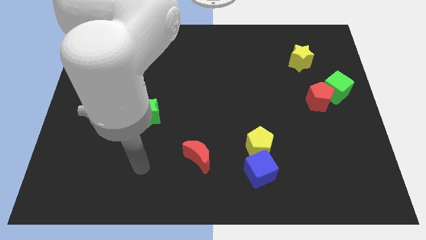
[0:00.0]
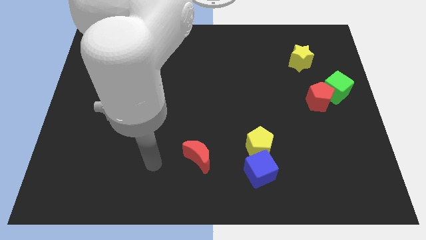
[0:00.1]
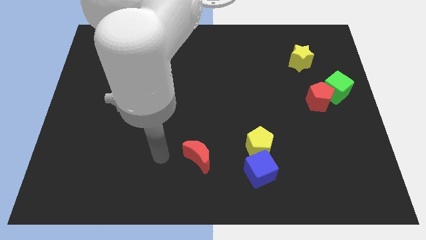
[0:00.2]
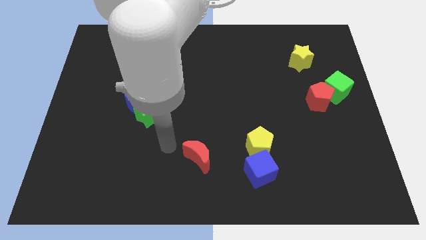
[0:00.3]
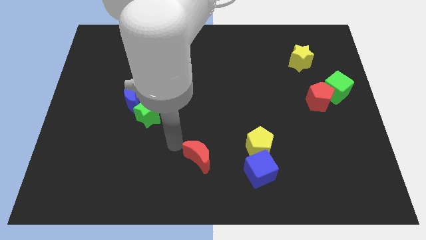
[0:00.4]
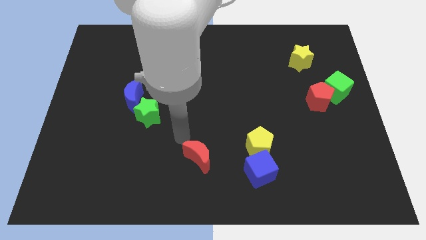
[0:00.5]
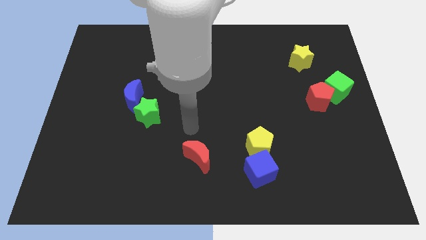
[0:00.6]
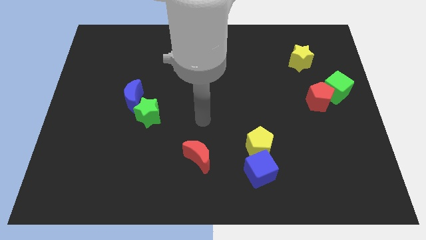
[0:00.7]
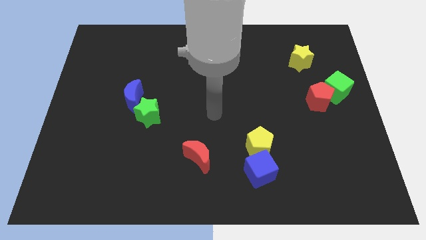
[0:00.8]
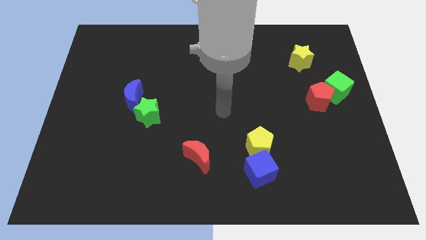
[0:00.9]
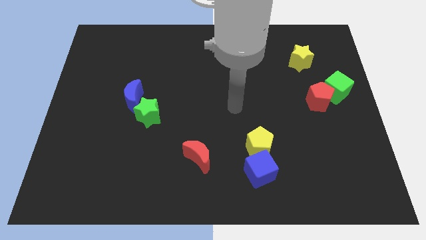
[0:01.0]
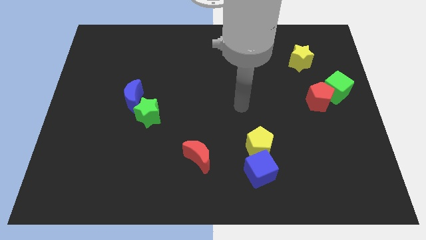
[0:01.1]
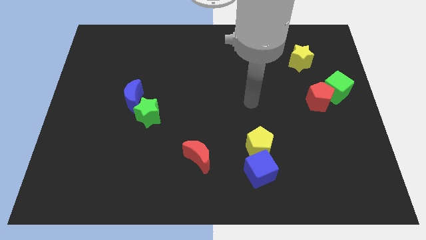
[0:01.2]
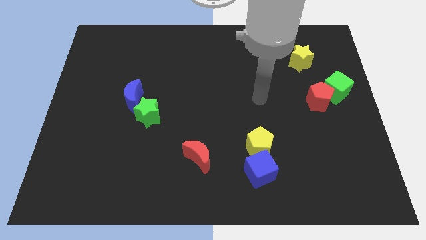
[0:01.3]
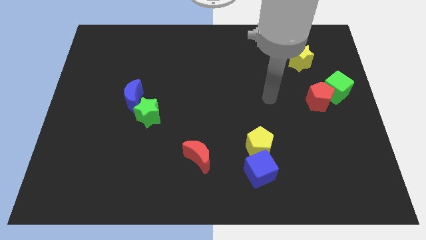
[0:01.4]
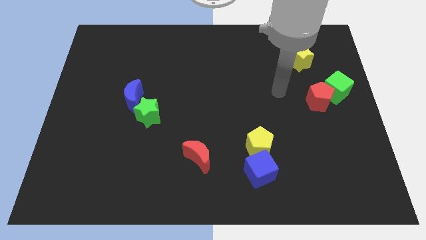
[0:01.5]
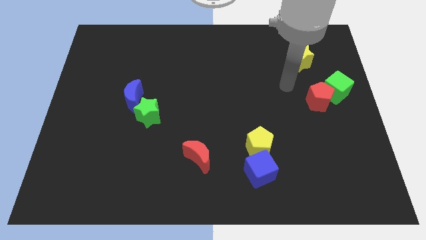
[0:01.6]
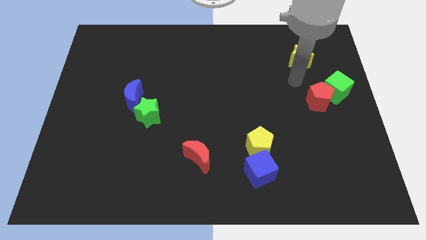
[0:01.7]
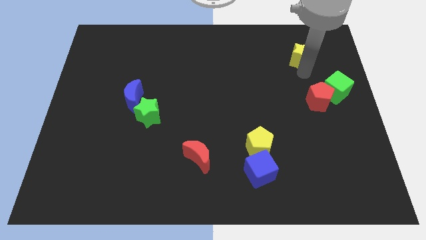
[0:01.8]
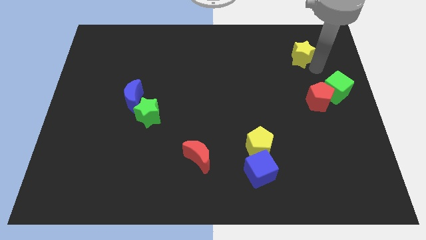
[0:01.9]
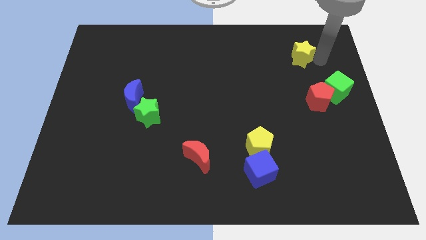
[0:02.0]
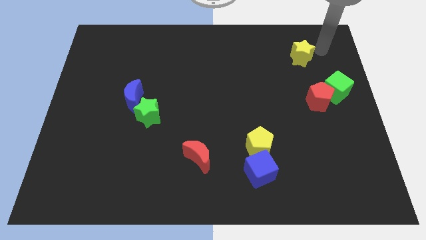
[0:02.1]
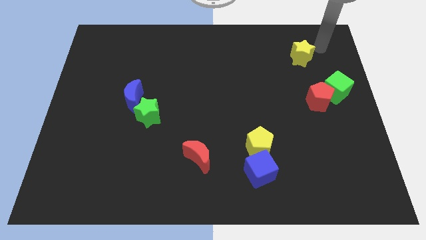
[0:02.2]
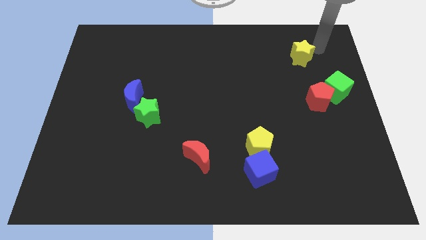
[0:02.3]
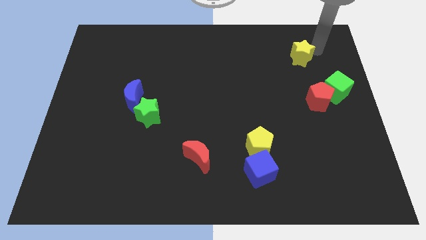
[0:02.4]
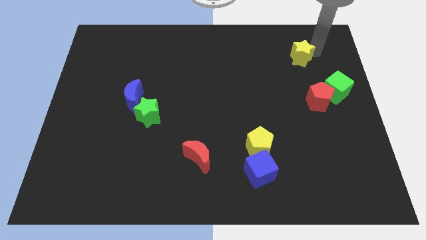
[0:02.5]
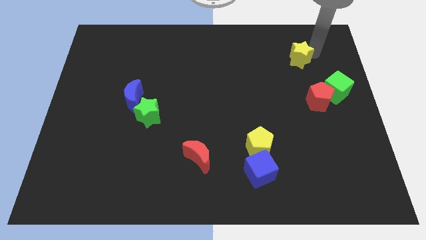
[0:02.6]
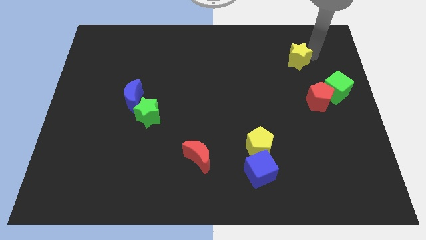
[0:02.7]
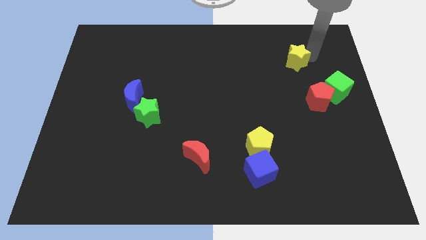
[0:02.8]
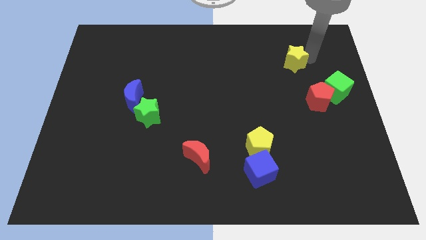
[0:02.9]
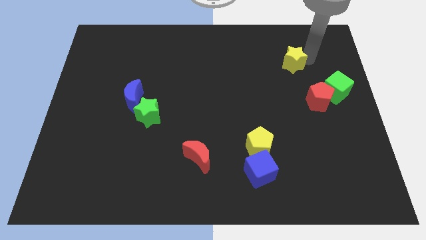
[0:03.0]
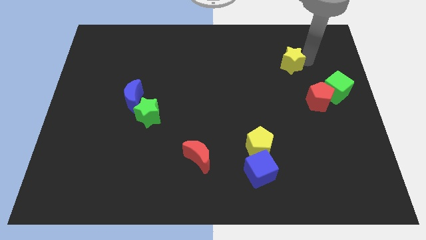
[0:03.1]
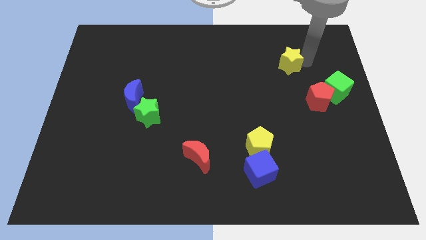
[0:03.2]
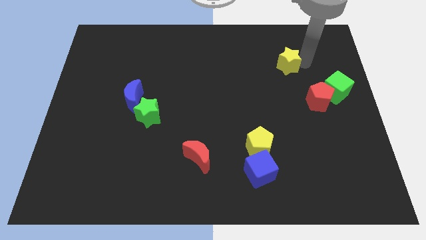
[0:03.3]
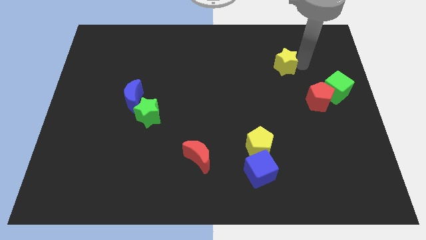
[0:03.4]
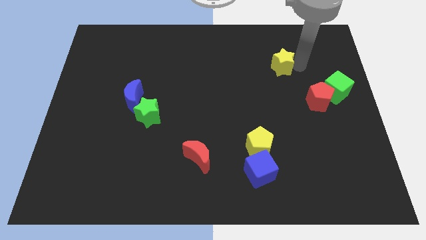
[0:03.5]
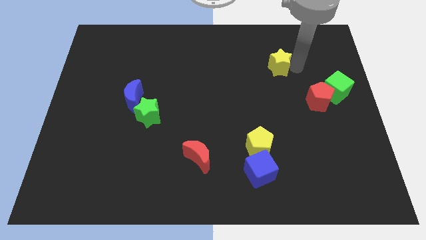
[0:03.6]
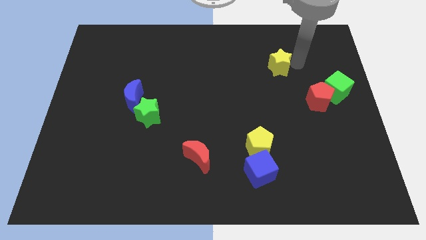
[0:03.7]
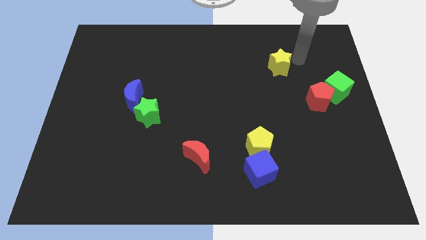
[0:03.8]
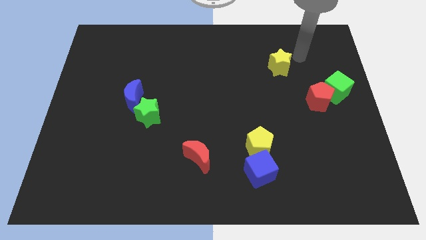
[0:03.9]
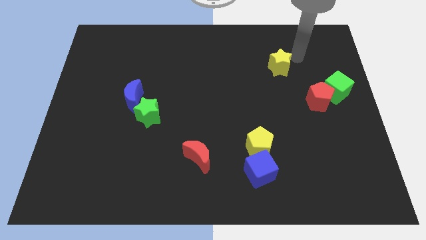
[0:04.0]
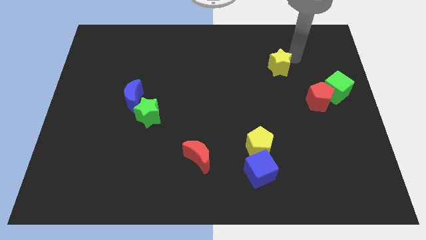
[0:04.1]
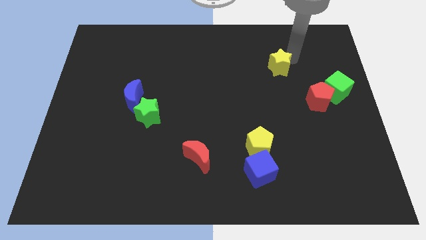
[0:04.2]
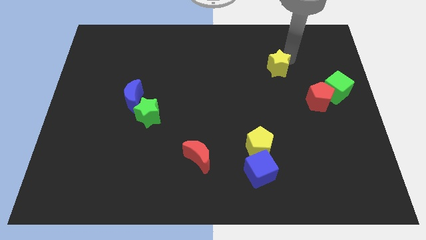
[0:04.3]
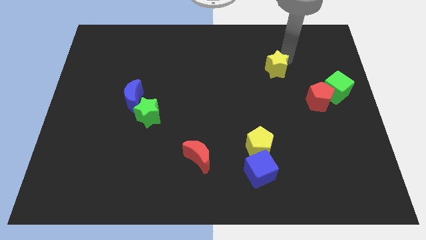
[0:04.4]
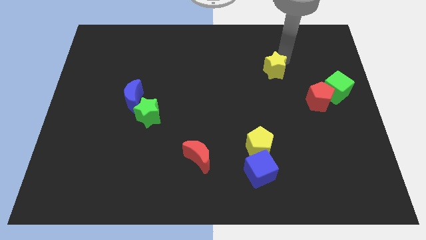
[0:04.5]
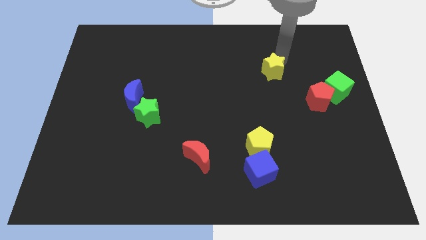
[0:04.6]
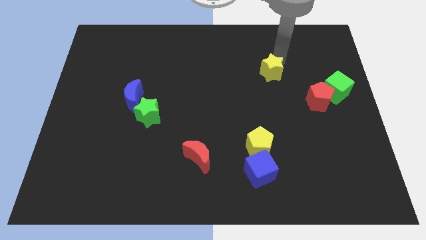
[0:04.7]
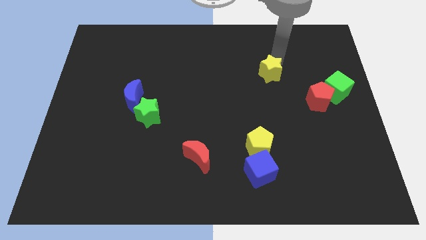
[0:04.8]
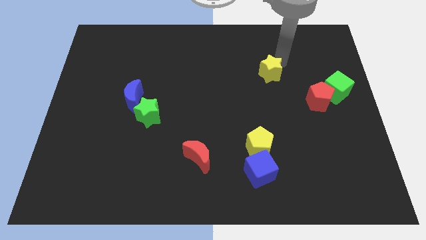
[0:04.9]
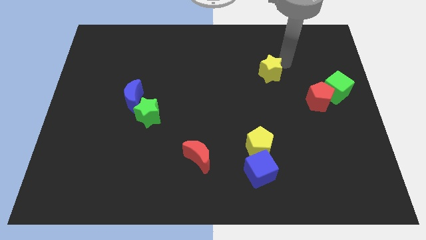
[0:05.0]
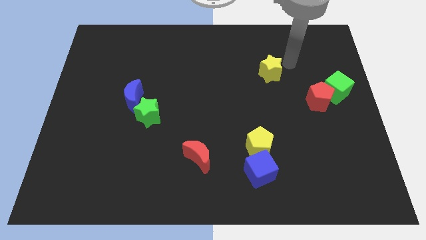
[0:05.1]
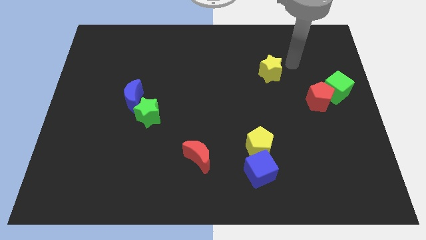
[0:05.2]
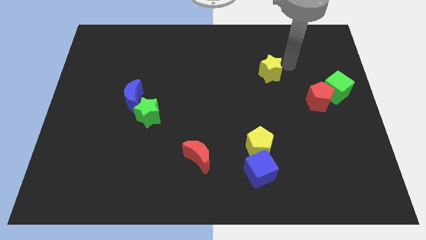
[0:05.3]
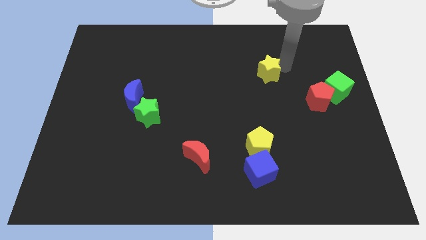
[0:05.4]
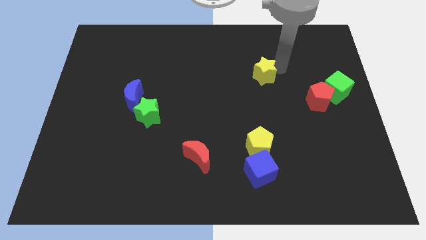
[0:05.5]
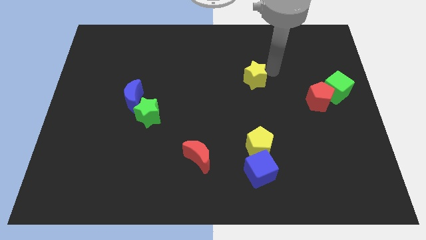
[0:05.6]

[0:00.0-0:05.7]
put the yellow star to the center of the board
